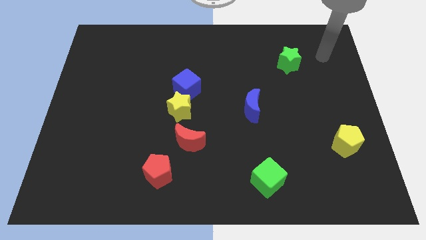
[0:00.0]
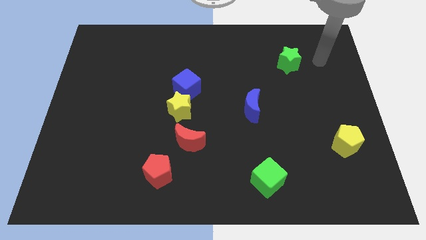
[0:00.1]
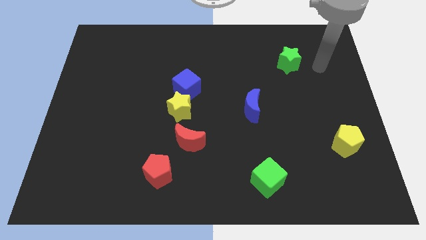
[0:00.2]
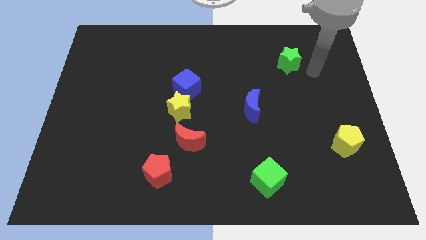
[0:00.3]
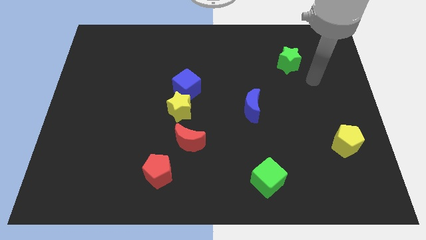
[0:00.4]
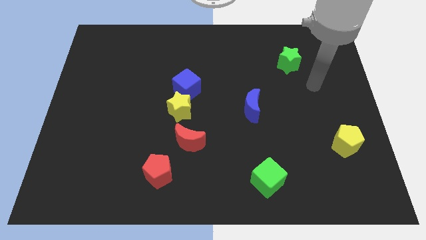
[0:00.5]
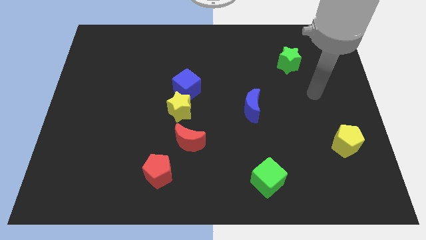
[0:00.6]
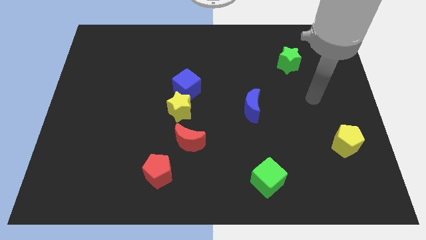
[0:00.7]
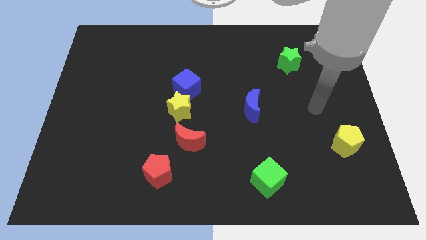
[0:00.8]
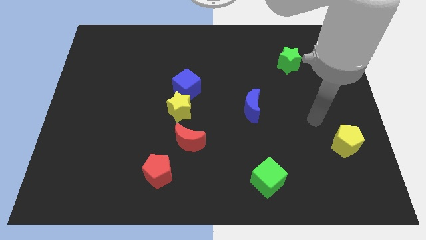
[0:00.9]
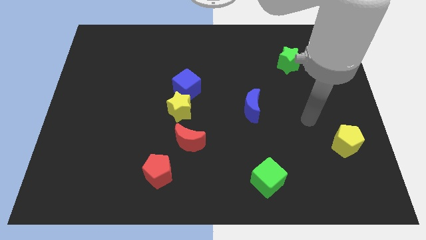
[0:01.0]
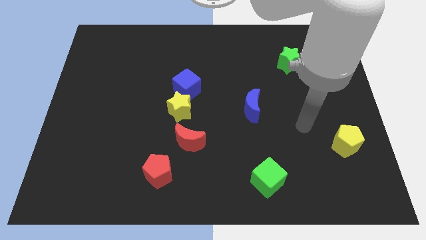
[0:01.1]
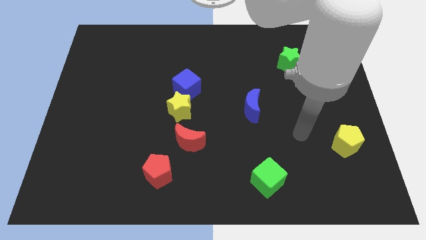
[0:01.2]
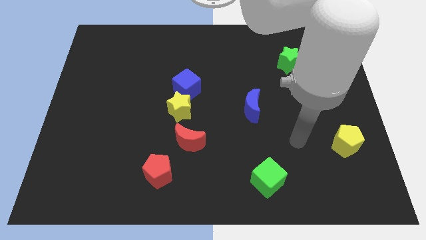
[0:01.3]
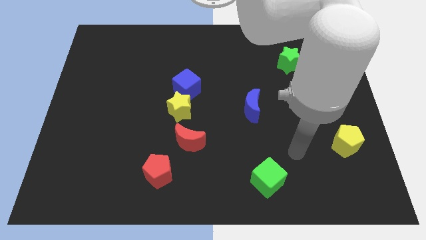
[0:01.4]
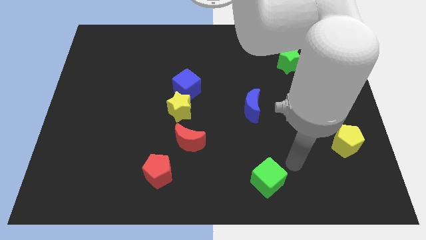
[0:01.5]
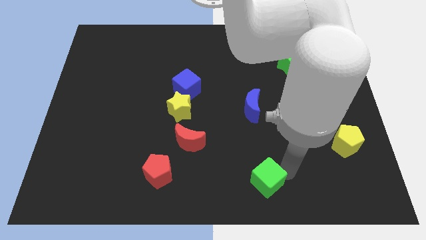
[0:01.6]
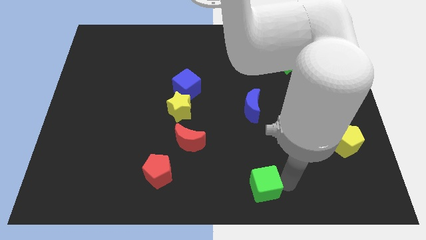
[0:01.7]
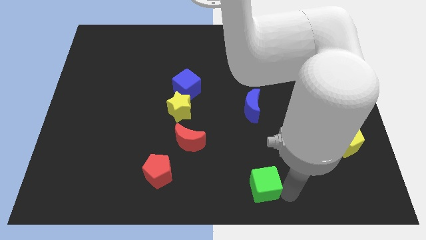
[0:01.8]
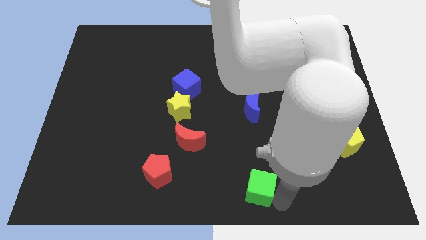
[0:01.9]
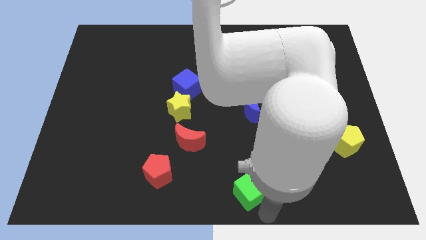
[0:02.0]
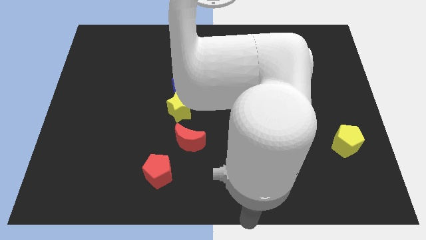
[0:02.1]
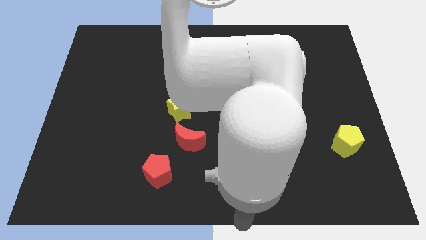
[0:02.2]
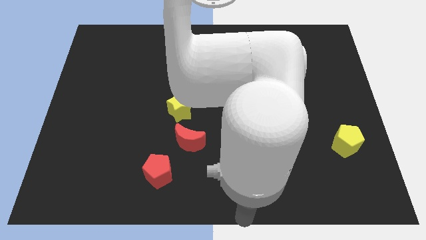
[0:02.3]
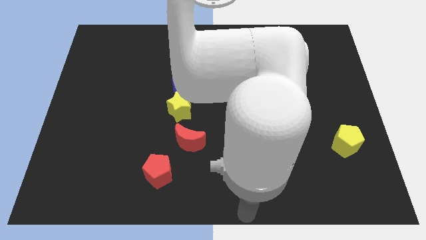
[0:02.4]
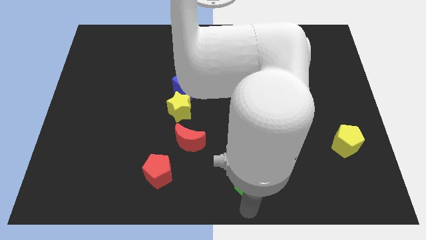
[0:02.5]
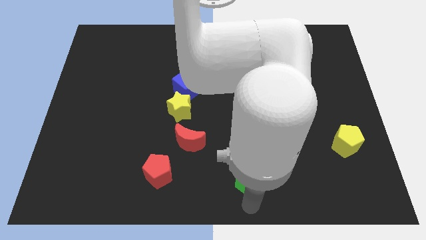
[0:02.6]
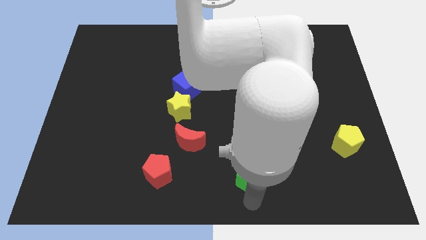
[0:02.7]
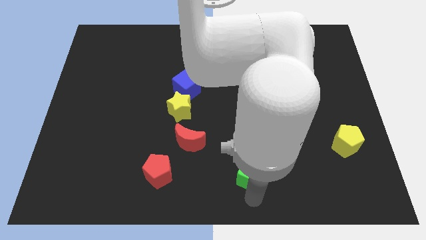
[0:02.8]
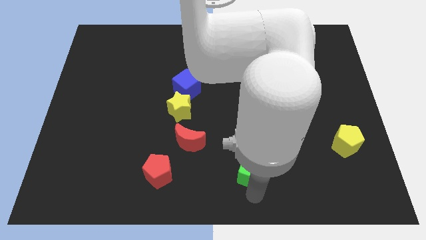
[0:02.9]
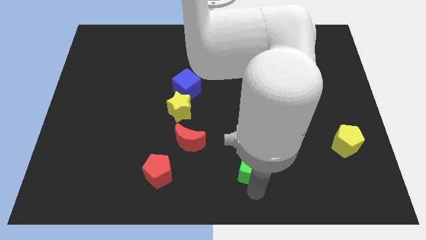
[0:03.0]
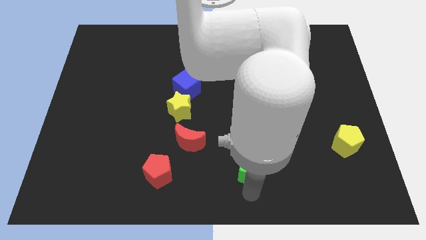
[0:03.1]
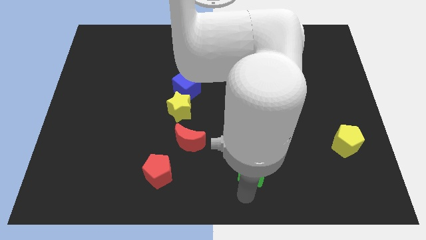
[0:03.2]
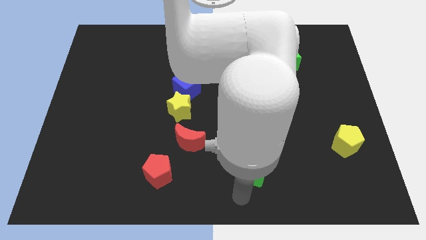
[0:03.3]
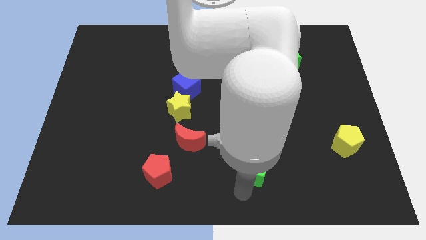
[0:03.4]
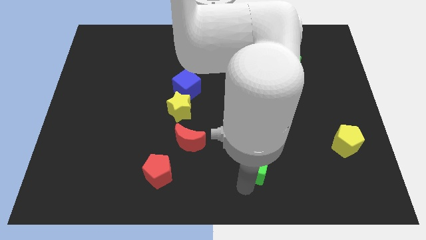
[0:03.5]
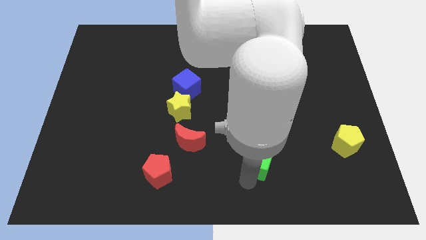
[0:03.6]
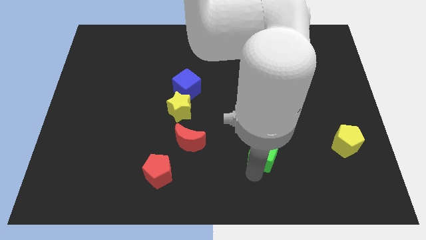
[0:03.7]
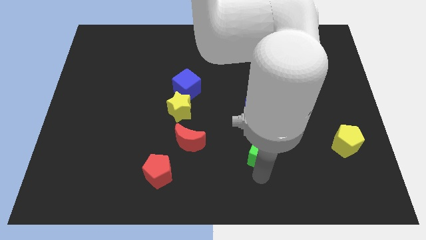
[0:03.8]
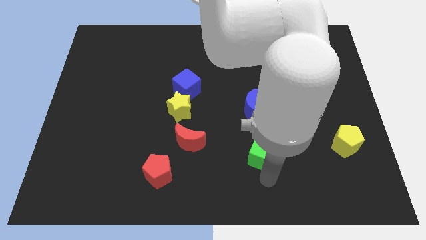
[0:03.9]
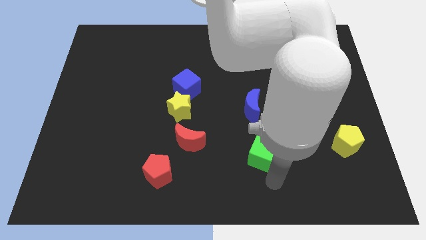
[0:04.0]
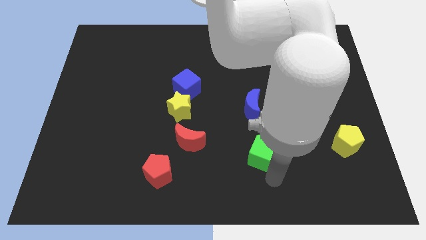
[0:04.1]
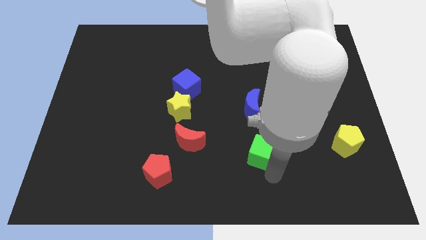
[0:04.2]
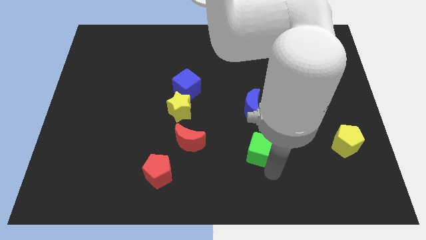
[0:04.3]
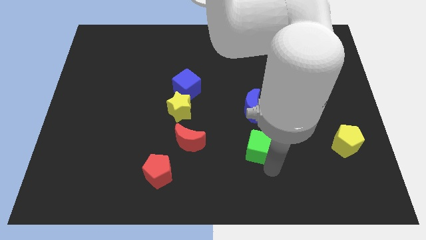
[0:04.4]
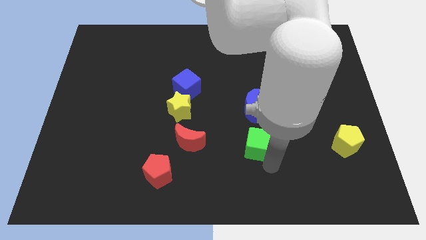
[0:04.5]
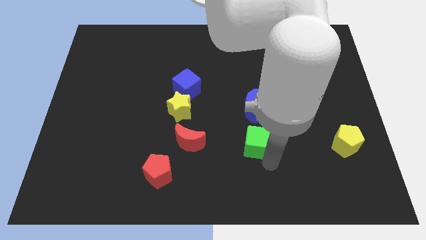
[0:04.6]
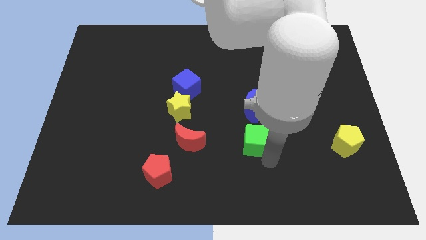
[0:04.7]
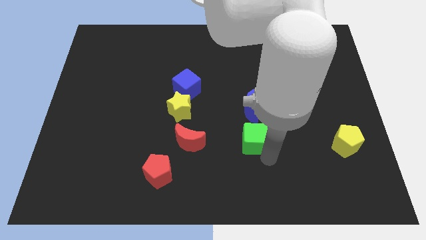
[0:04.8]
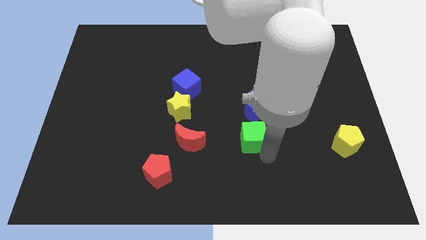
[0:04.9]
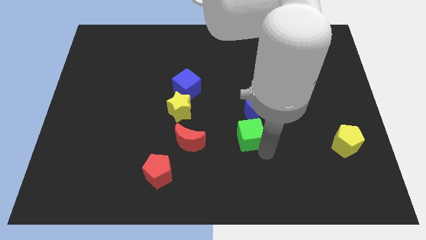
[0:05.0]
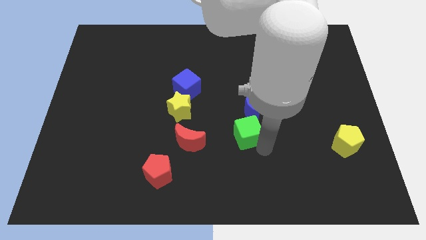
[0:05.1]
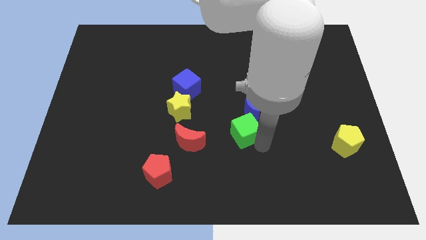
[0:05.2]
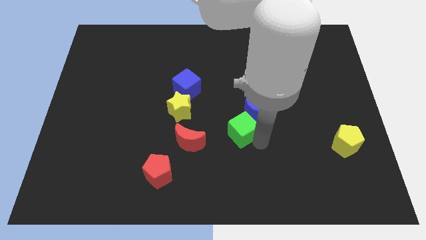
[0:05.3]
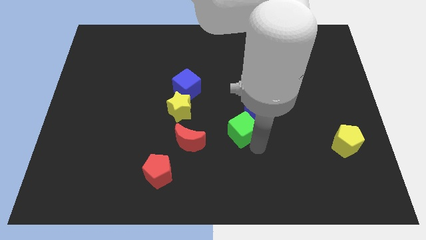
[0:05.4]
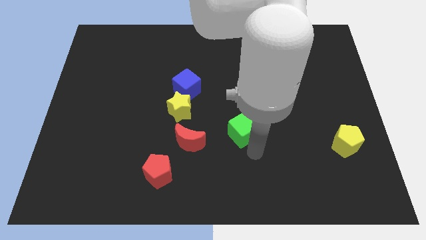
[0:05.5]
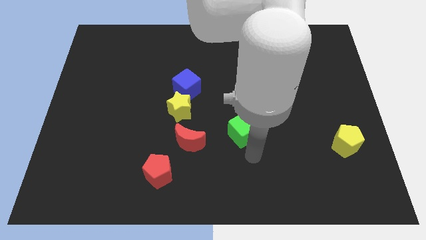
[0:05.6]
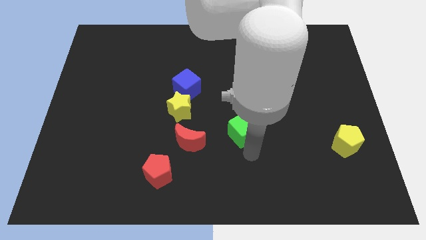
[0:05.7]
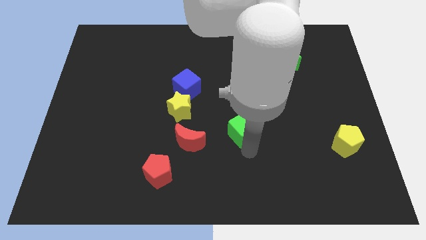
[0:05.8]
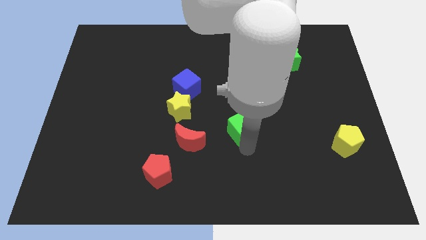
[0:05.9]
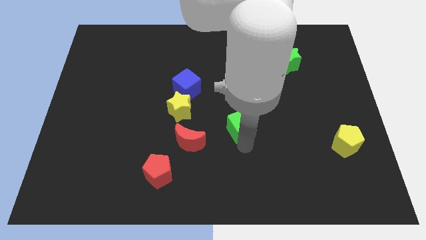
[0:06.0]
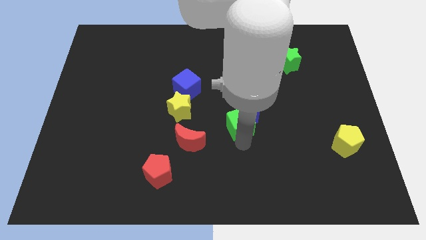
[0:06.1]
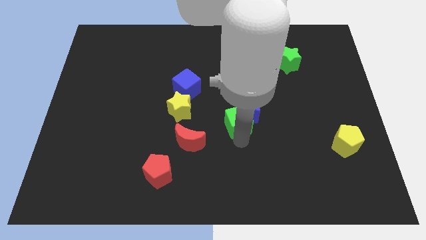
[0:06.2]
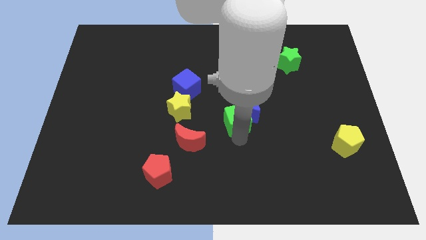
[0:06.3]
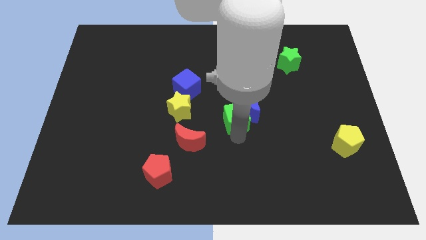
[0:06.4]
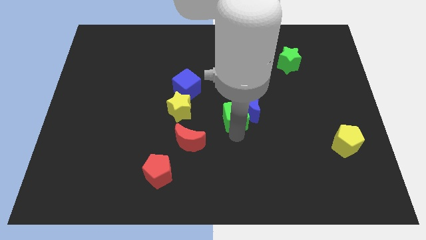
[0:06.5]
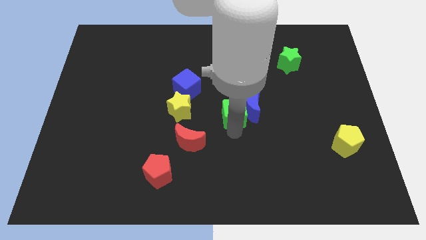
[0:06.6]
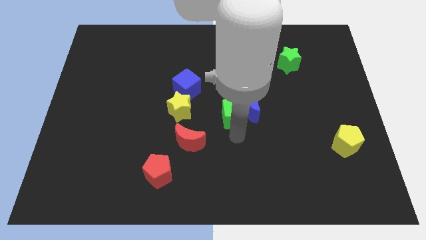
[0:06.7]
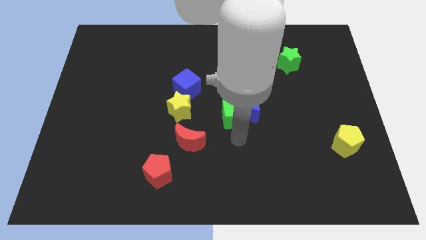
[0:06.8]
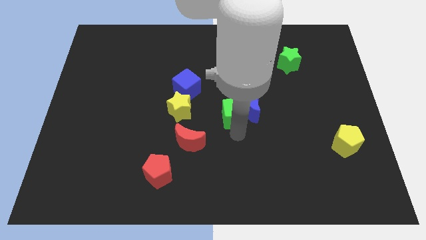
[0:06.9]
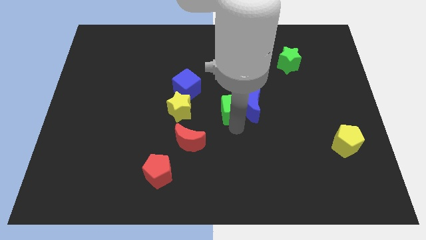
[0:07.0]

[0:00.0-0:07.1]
slide the green cube diagonally up and to the left of the blue moon

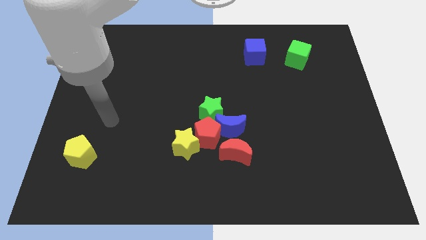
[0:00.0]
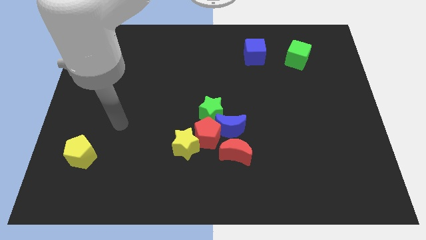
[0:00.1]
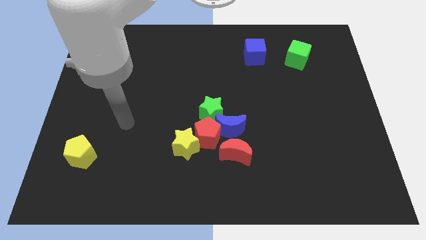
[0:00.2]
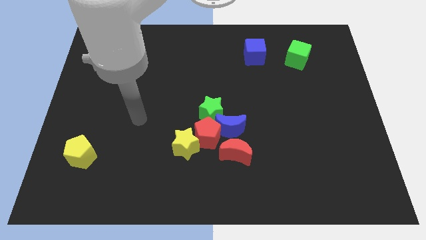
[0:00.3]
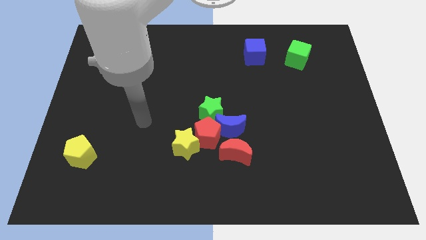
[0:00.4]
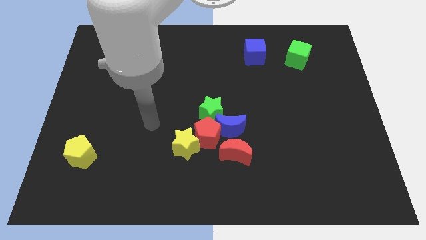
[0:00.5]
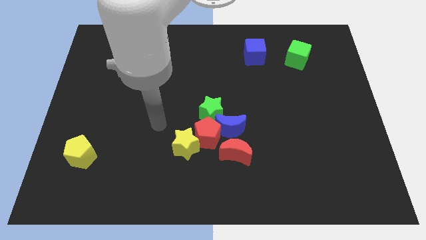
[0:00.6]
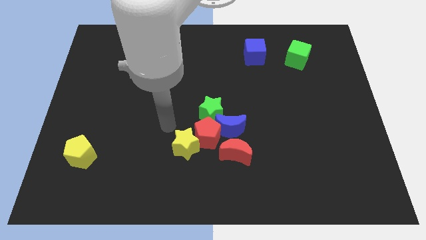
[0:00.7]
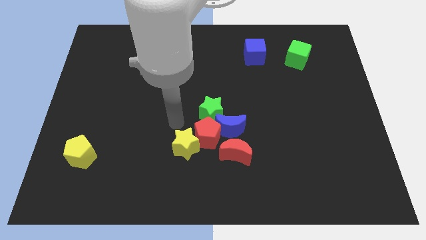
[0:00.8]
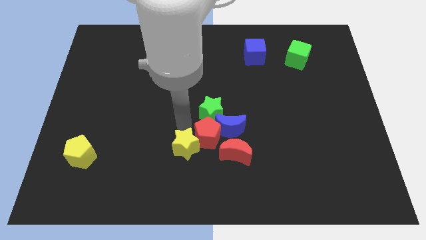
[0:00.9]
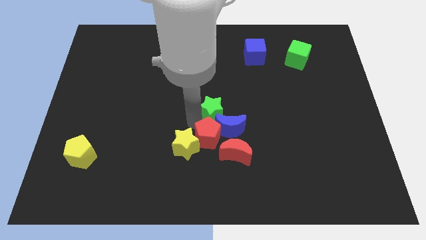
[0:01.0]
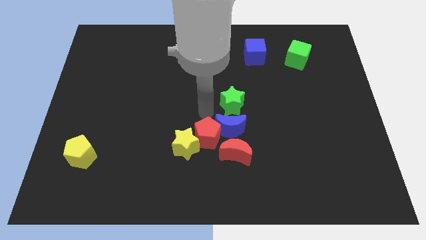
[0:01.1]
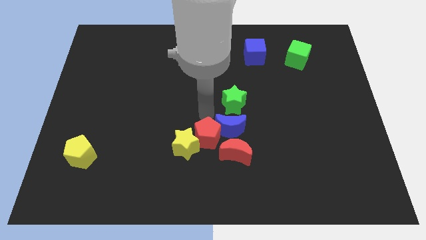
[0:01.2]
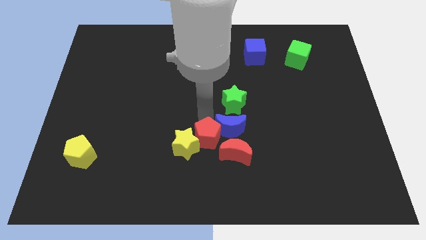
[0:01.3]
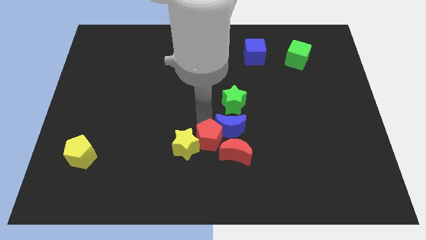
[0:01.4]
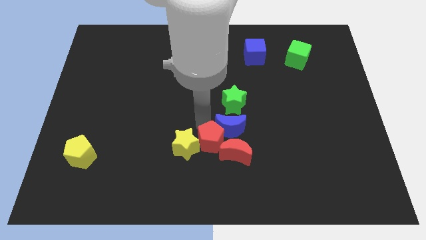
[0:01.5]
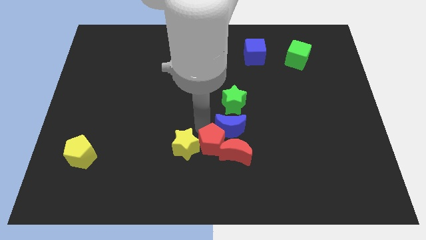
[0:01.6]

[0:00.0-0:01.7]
slide the red pentagon to the bottom right side of the yellow star
